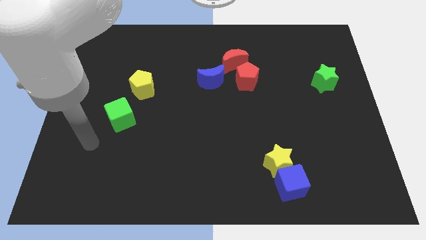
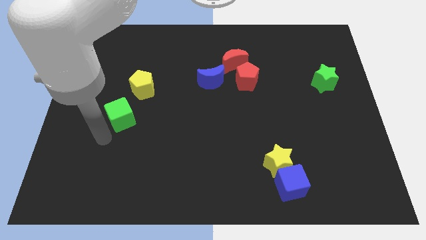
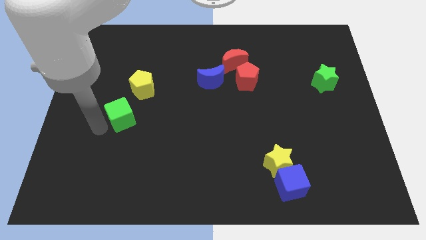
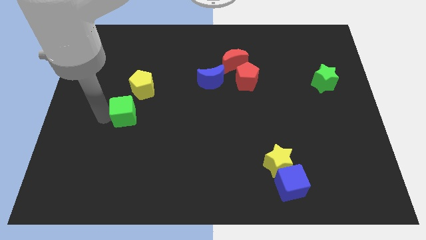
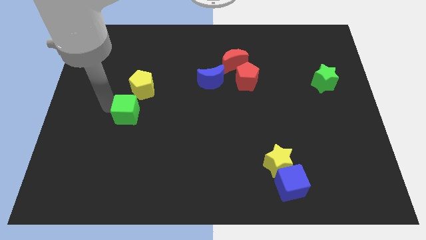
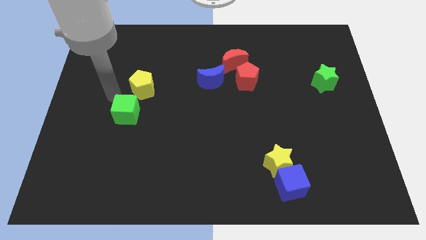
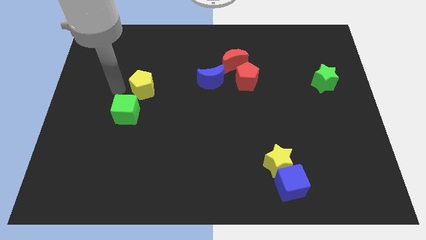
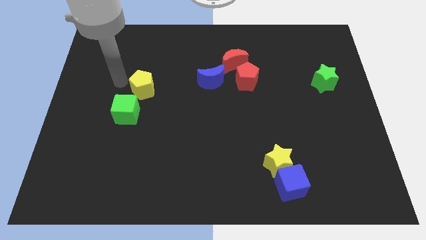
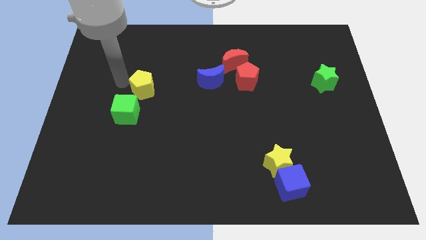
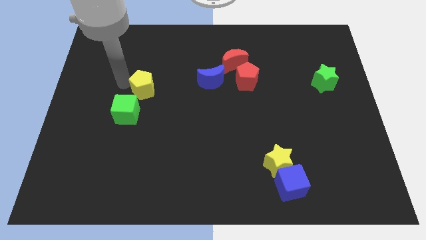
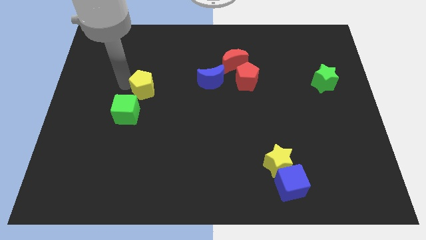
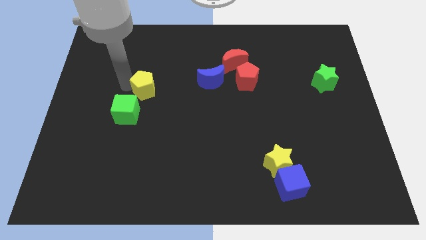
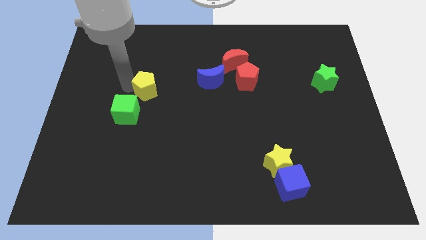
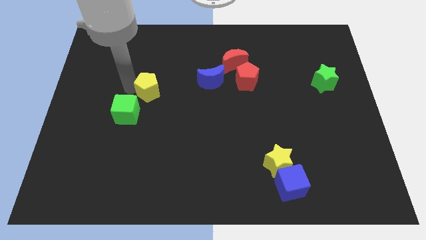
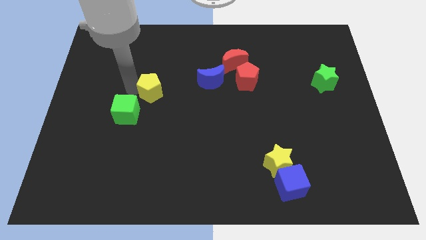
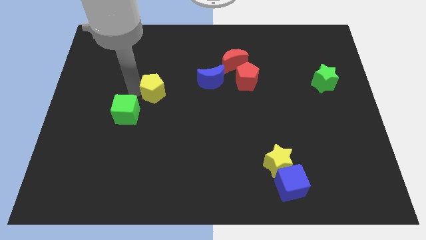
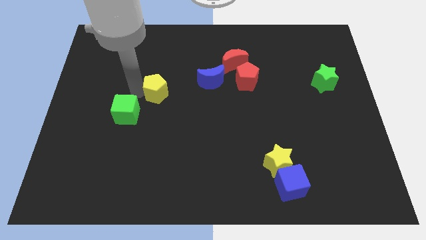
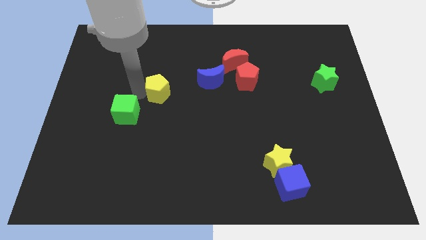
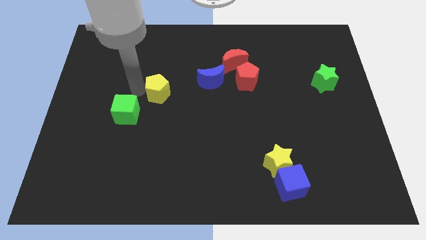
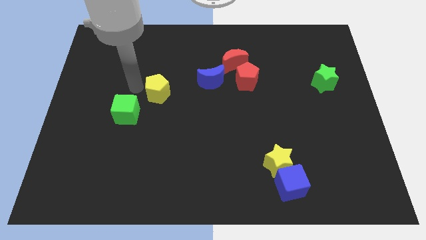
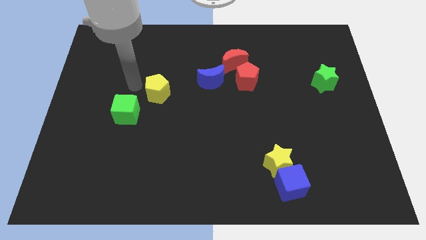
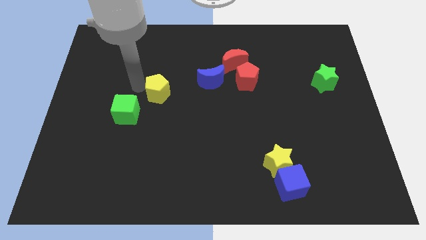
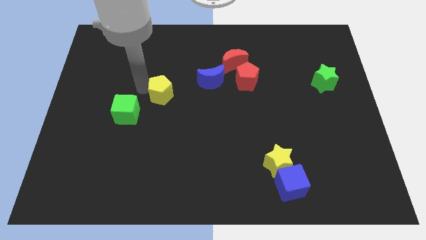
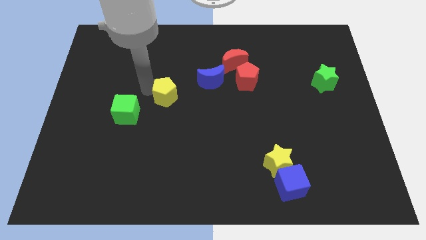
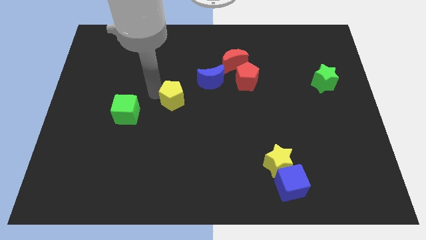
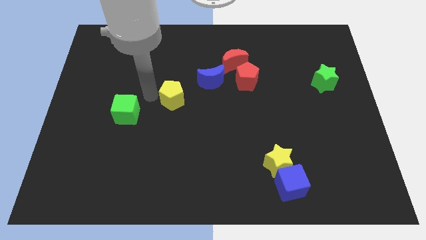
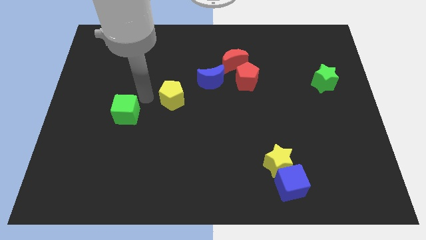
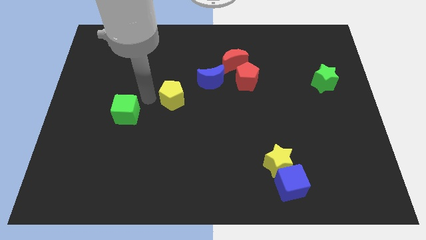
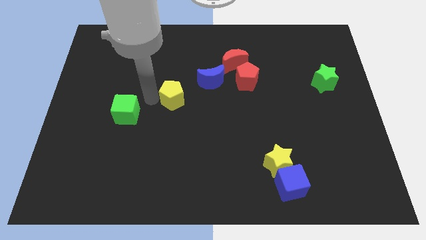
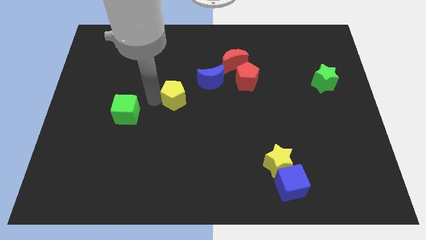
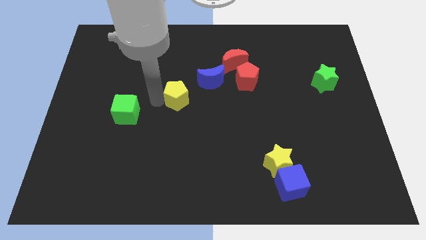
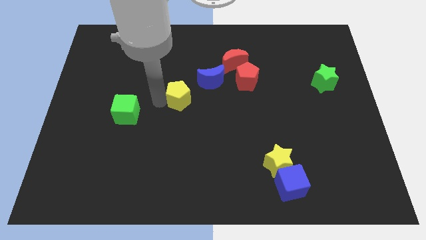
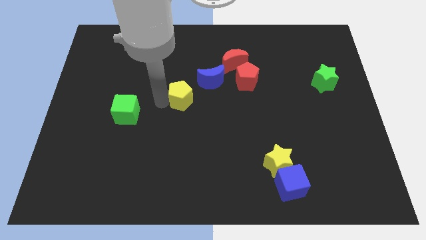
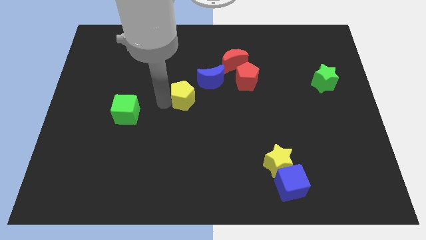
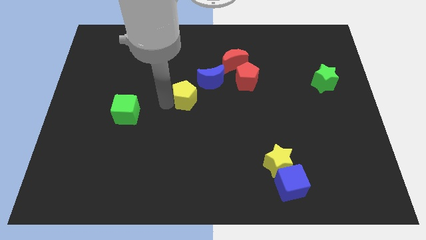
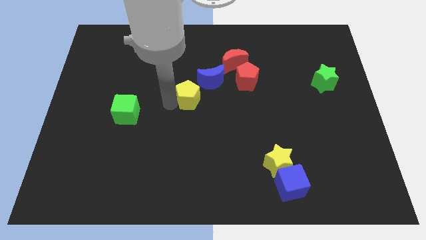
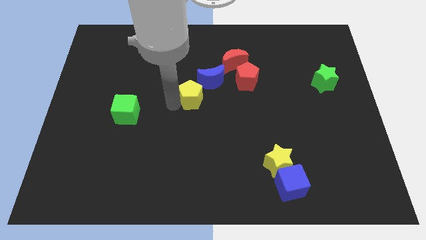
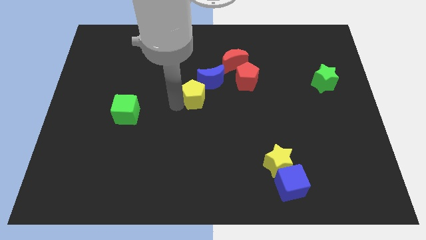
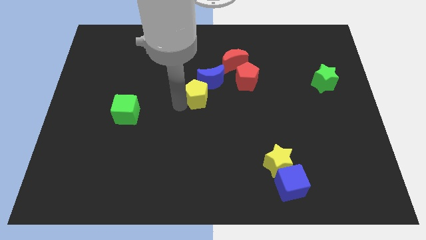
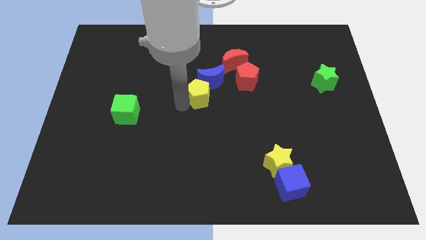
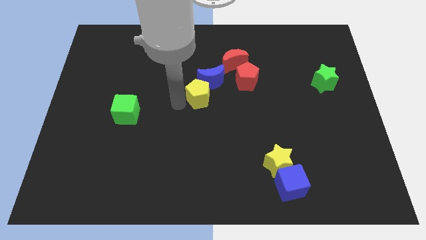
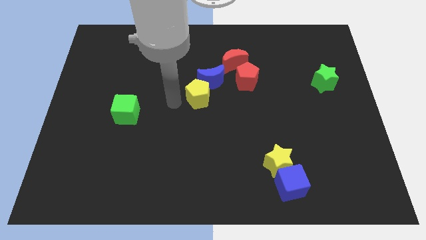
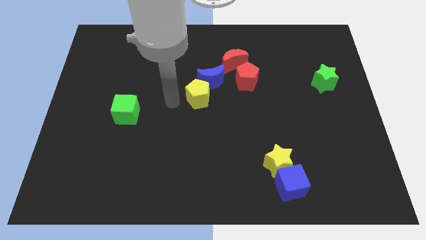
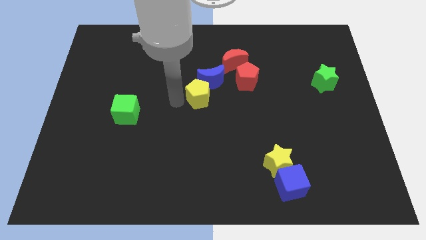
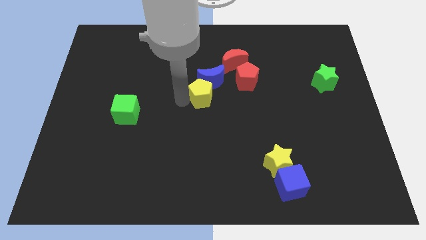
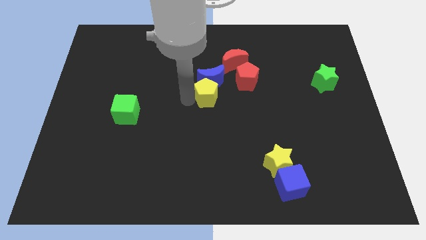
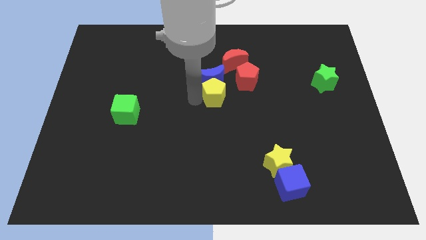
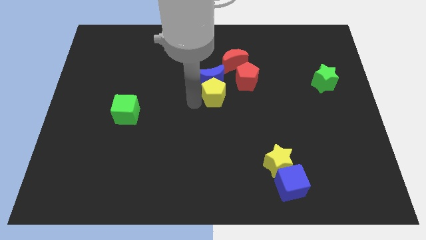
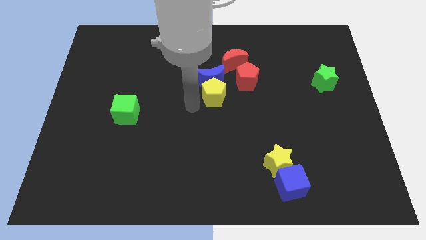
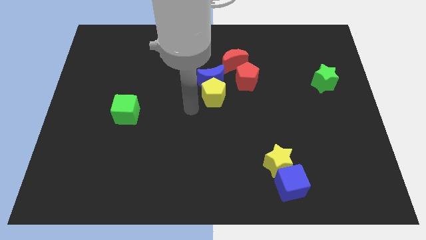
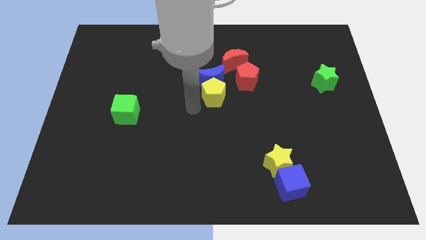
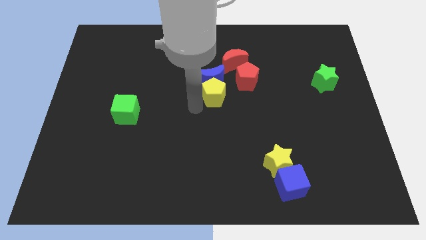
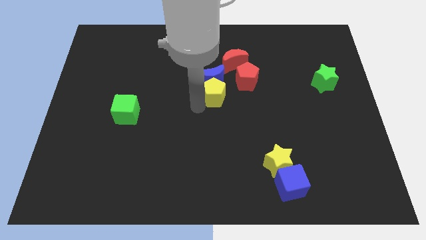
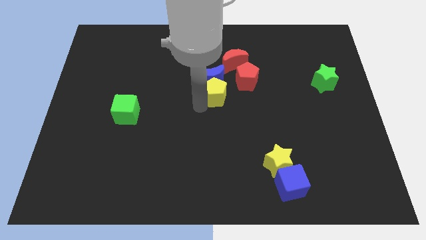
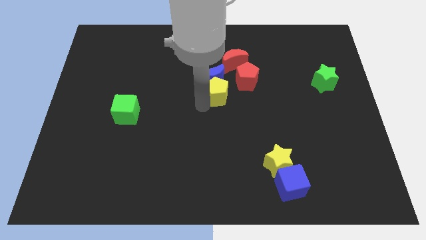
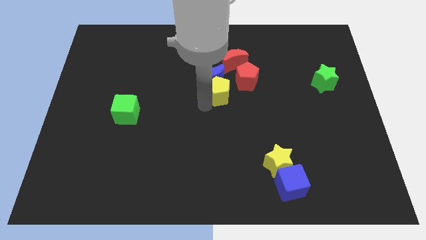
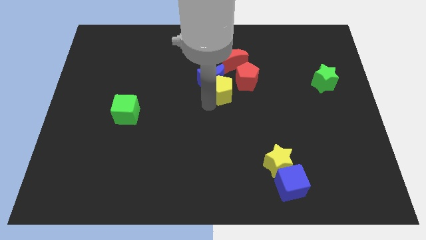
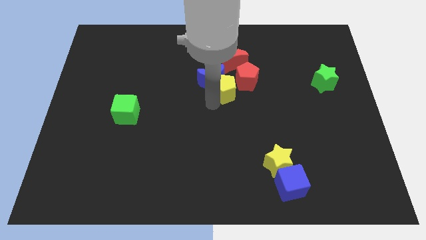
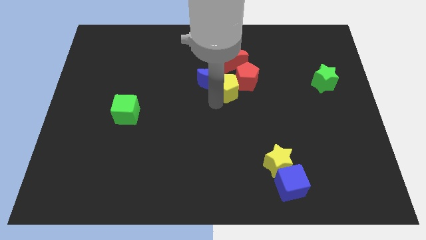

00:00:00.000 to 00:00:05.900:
slide the yellow pentagon next to the red pentagon

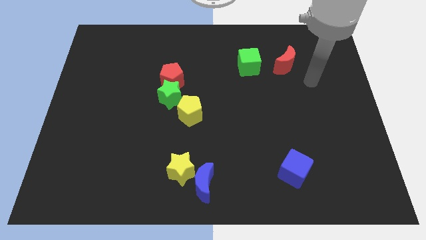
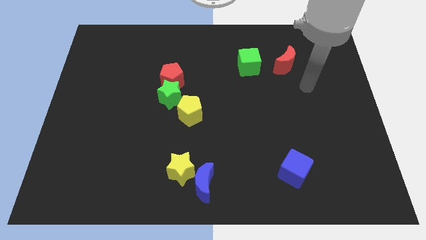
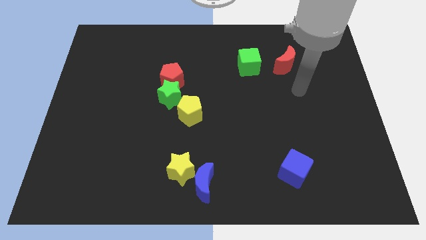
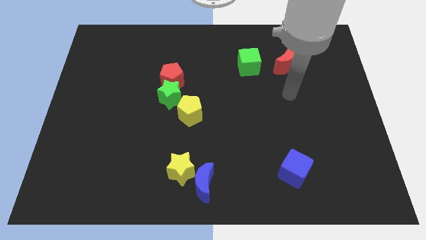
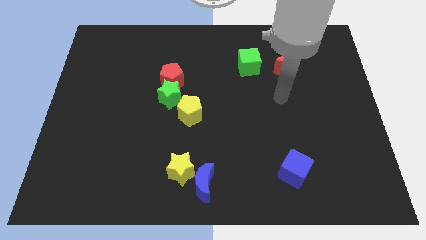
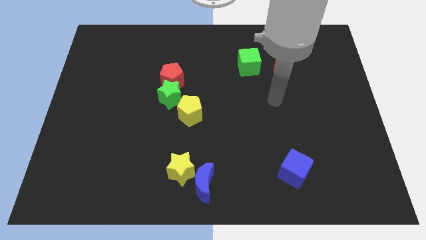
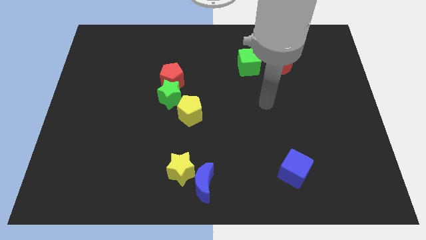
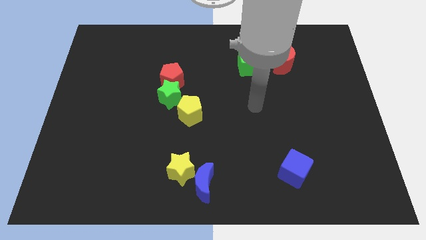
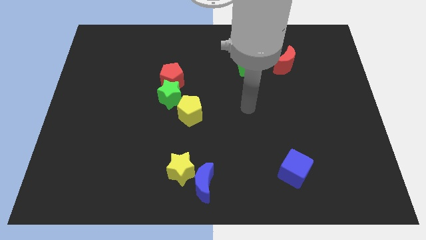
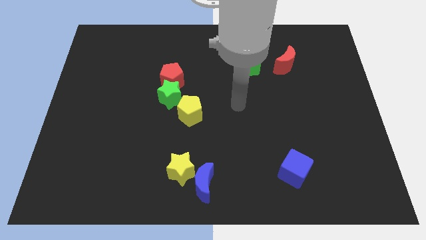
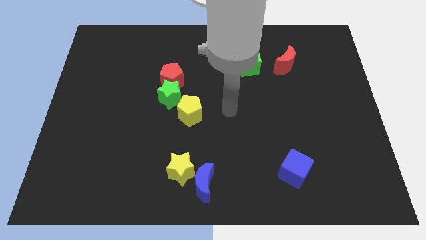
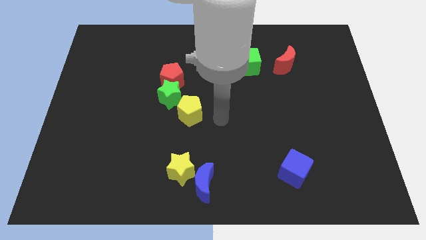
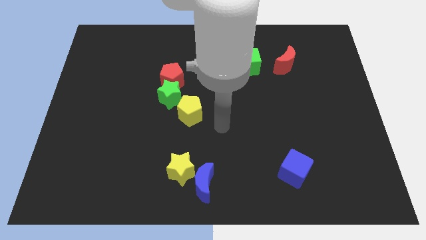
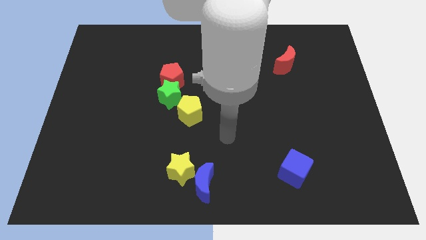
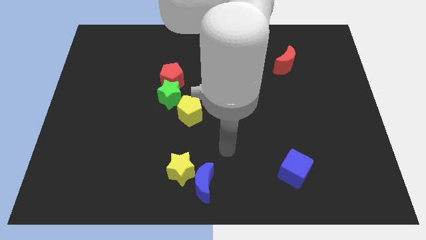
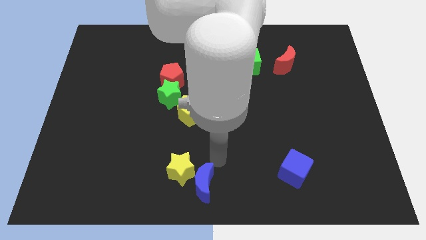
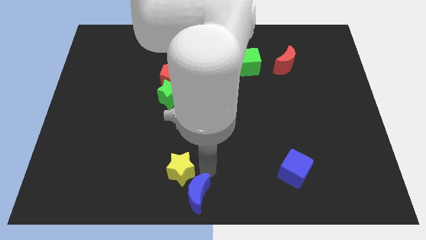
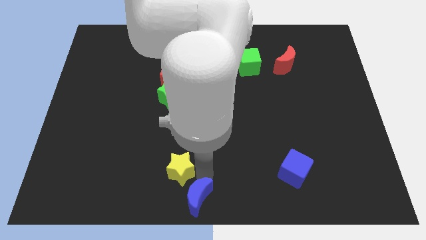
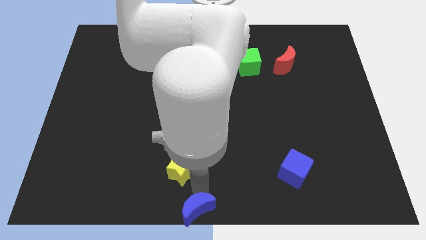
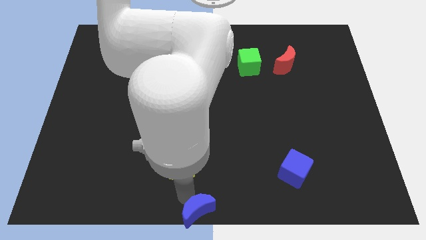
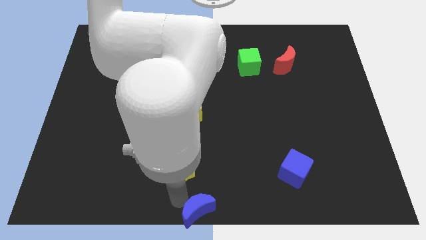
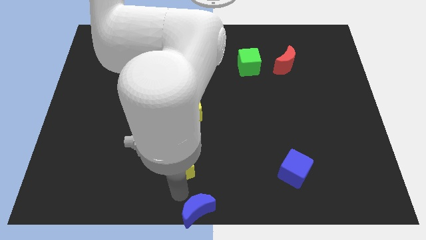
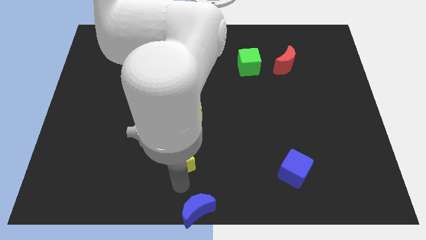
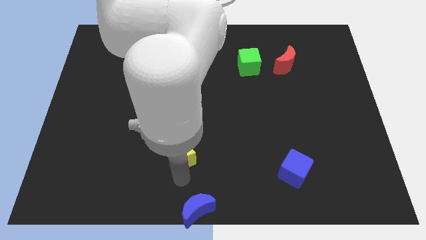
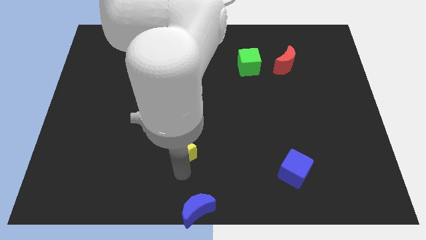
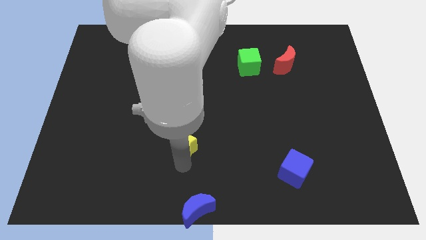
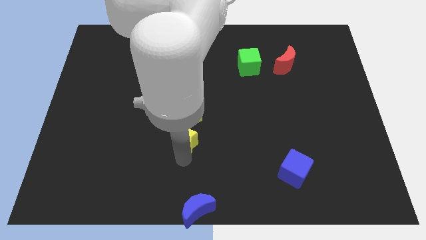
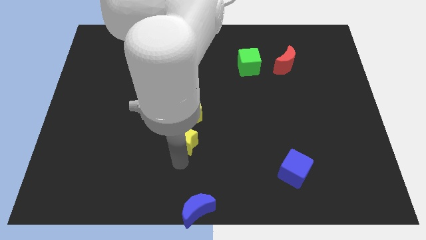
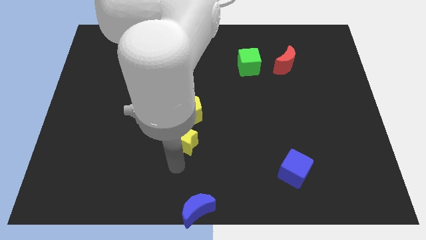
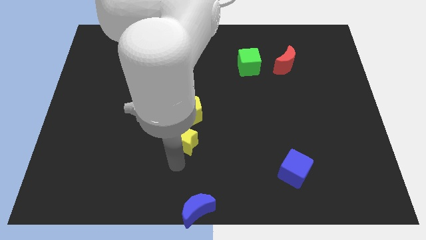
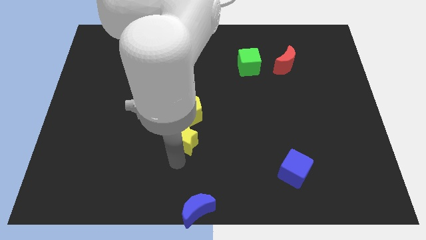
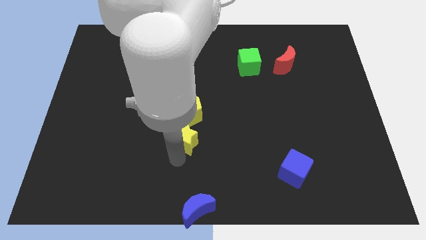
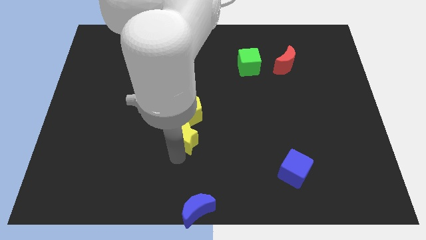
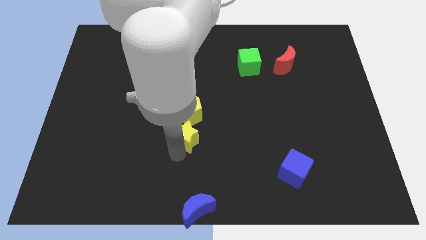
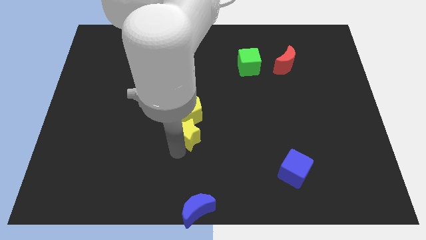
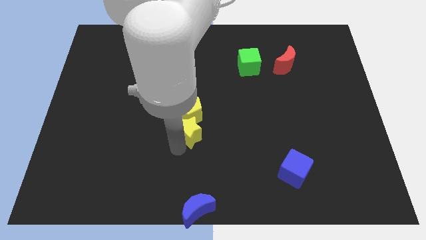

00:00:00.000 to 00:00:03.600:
slide the yellow star towards the yellow pentagon
